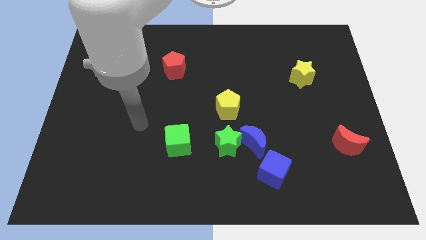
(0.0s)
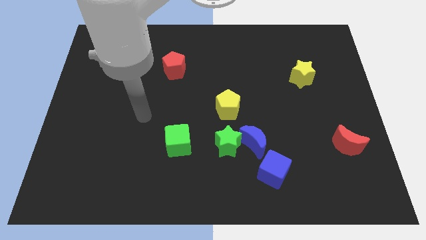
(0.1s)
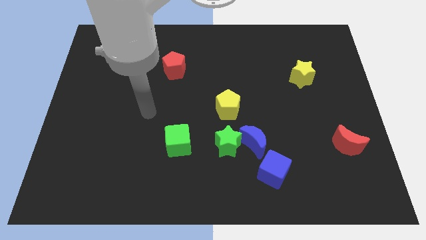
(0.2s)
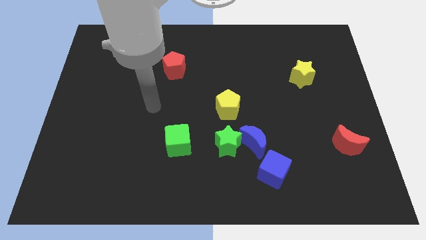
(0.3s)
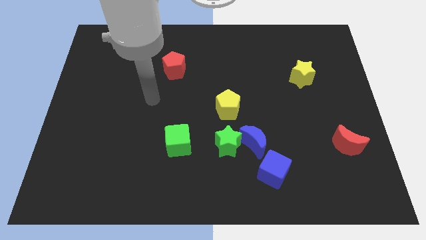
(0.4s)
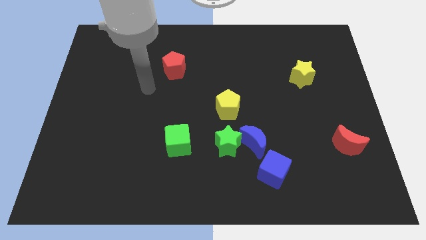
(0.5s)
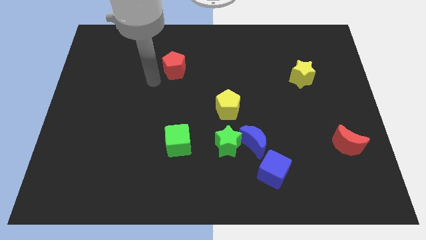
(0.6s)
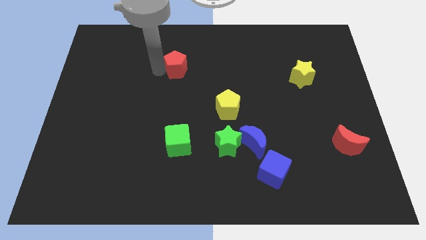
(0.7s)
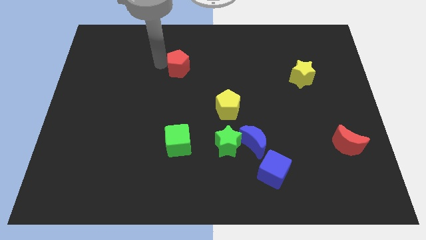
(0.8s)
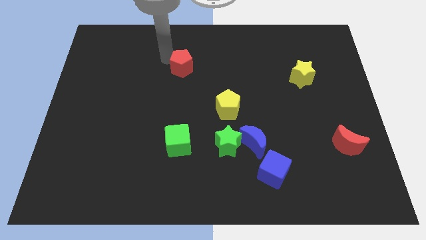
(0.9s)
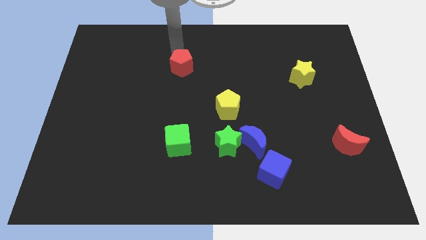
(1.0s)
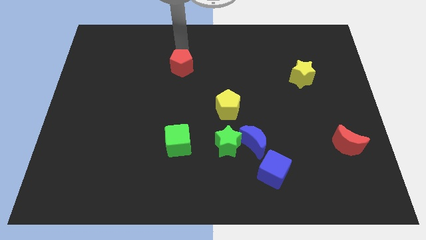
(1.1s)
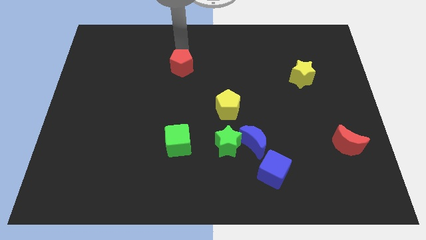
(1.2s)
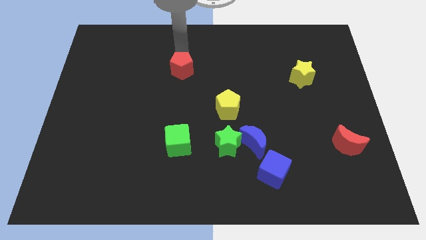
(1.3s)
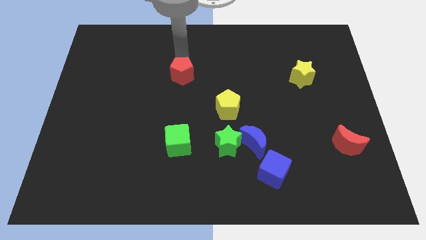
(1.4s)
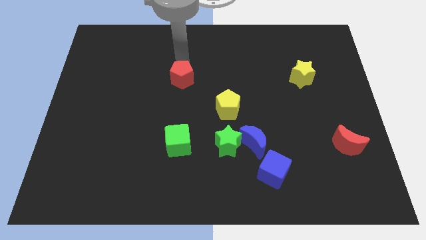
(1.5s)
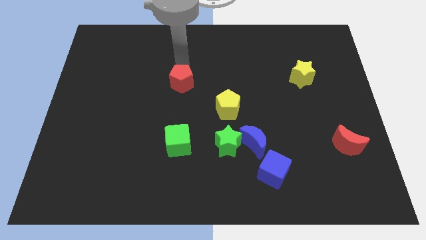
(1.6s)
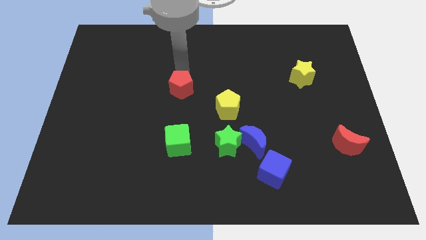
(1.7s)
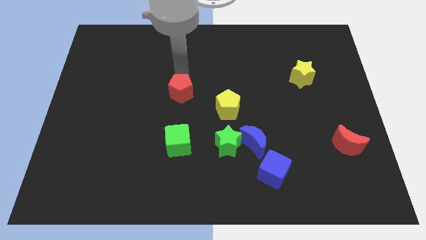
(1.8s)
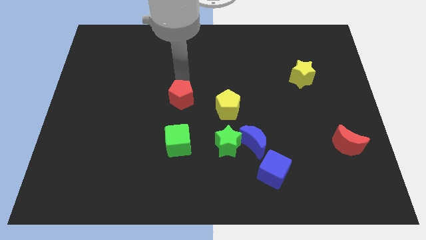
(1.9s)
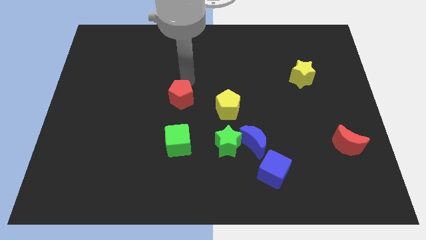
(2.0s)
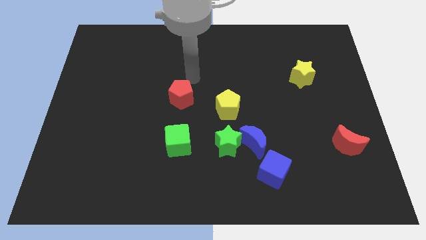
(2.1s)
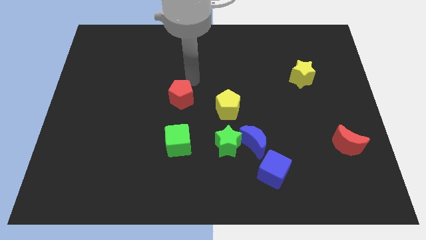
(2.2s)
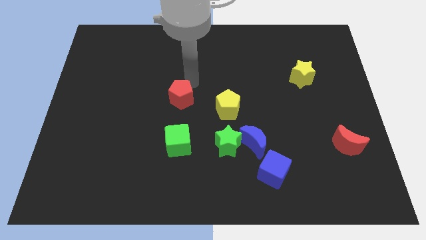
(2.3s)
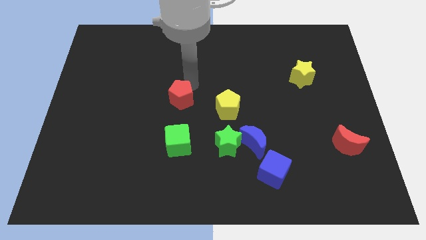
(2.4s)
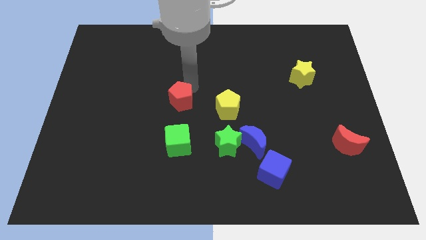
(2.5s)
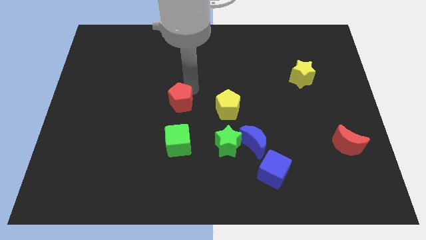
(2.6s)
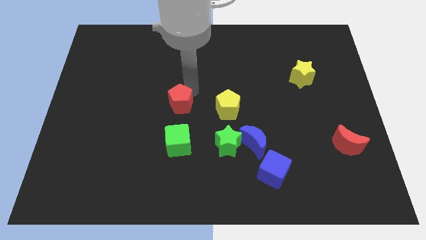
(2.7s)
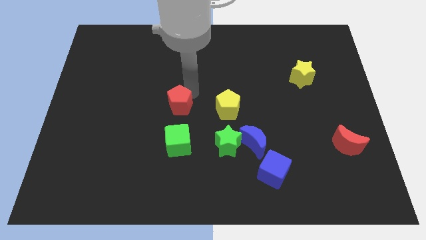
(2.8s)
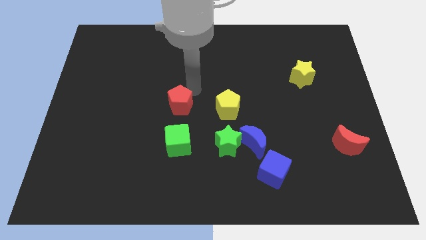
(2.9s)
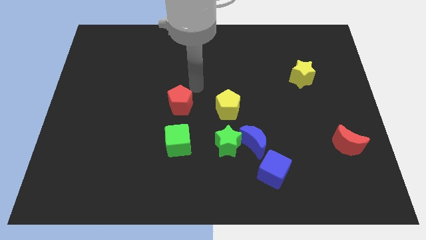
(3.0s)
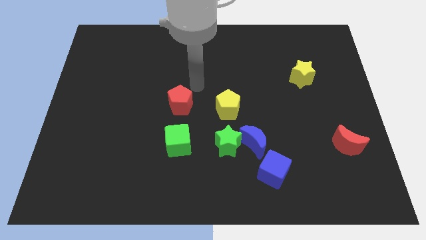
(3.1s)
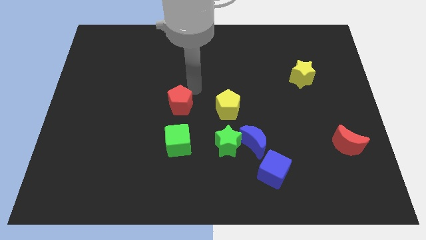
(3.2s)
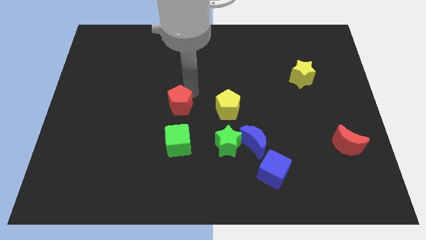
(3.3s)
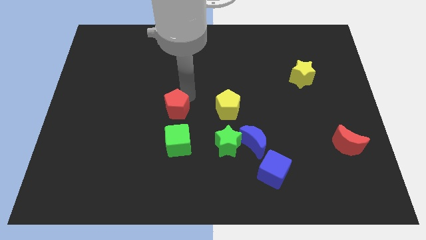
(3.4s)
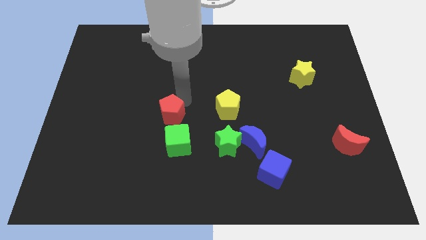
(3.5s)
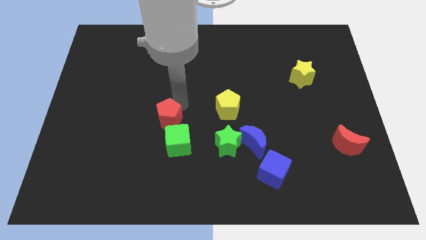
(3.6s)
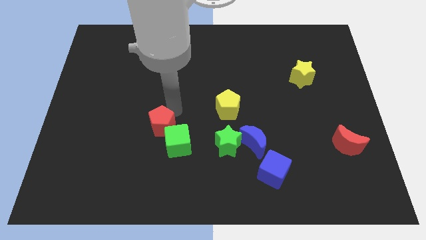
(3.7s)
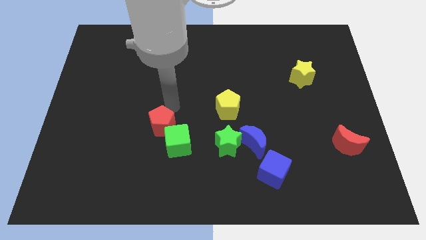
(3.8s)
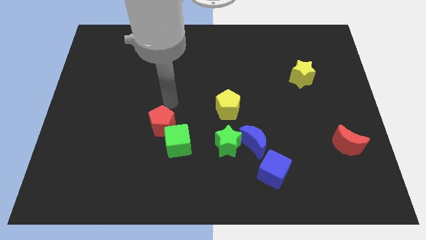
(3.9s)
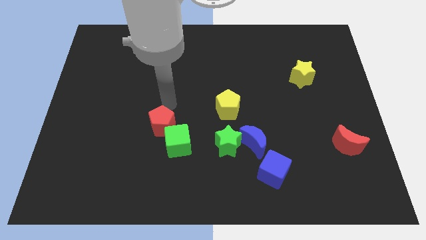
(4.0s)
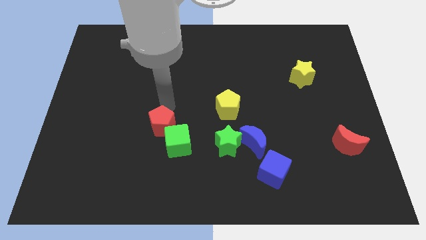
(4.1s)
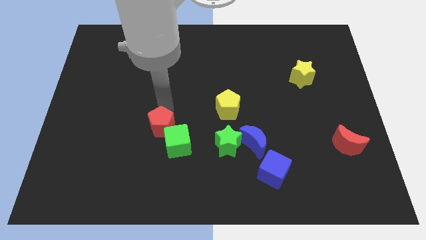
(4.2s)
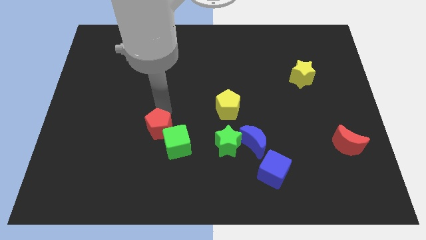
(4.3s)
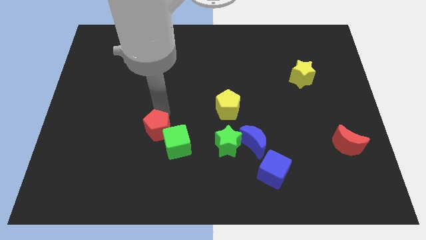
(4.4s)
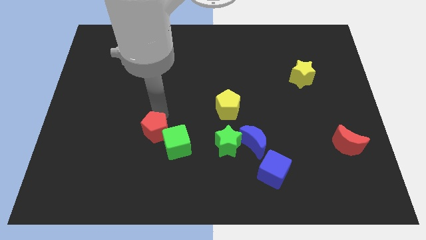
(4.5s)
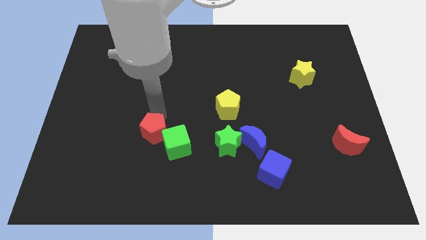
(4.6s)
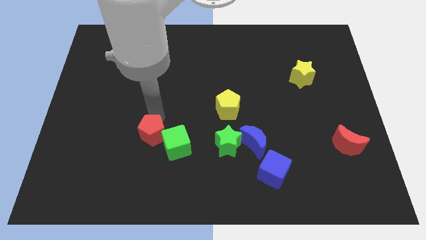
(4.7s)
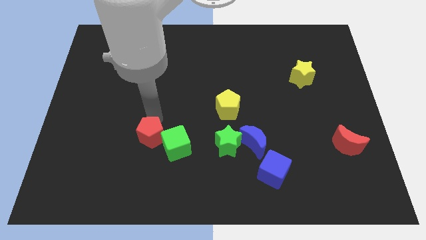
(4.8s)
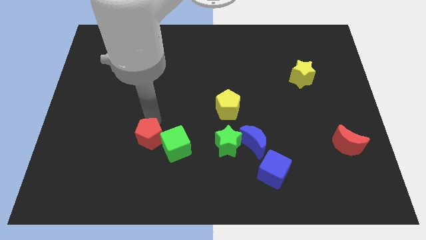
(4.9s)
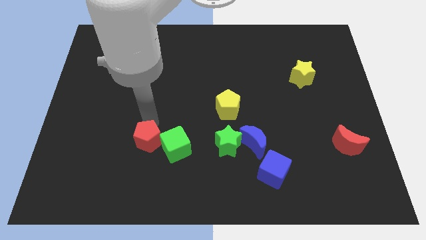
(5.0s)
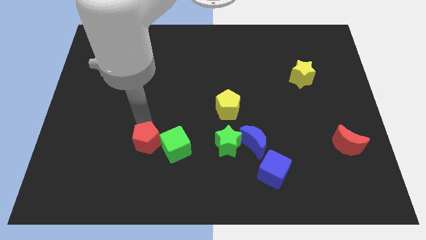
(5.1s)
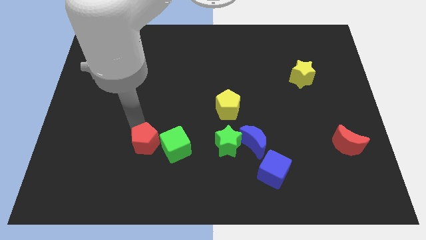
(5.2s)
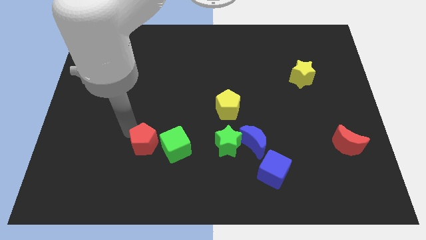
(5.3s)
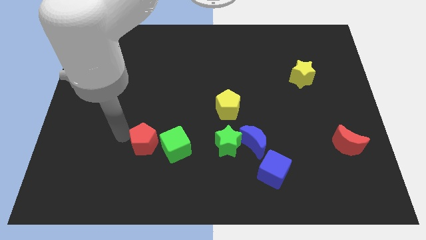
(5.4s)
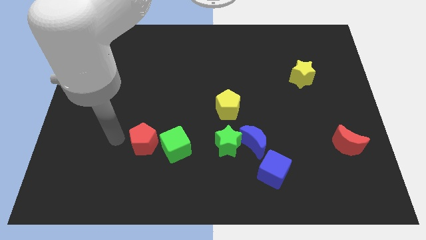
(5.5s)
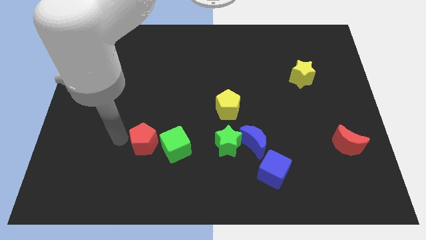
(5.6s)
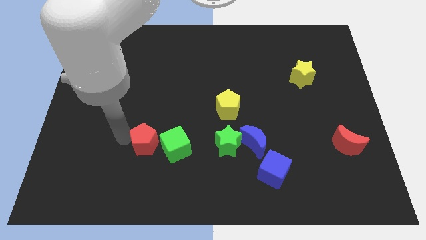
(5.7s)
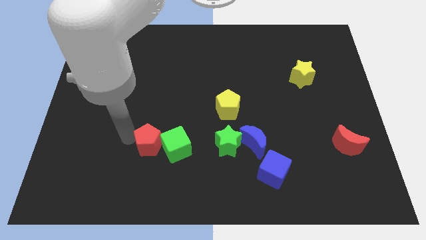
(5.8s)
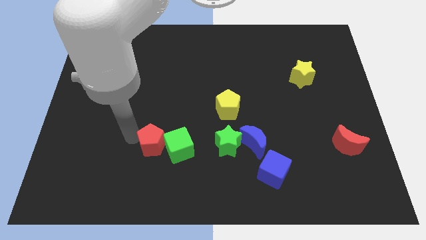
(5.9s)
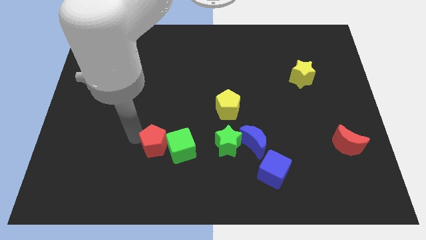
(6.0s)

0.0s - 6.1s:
put the red pentagon just left of the green star

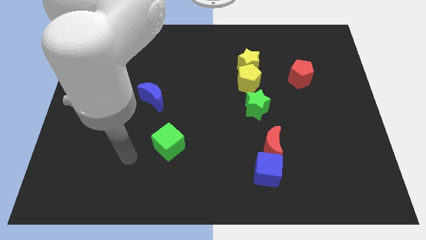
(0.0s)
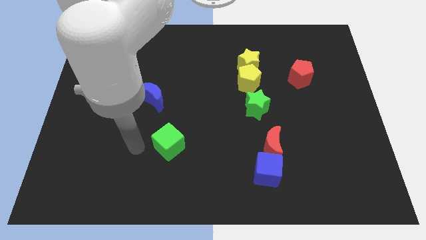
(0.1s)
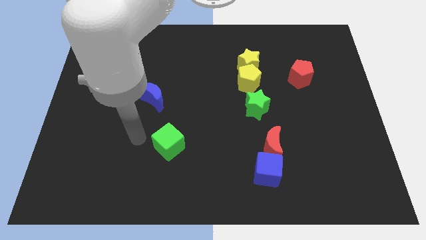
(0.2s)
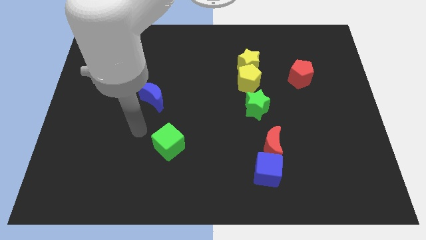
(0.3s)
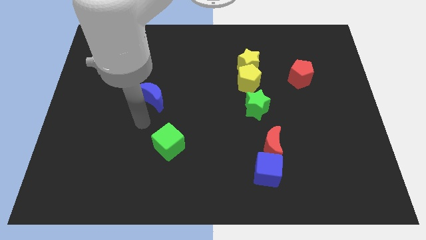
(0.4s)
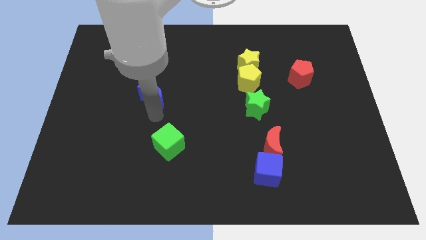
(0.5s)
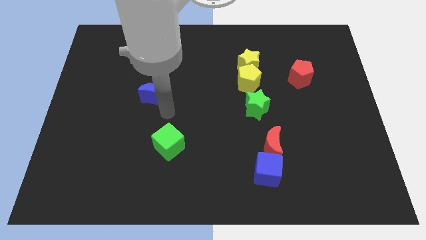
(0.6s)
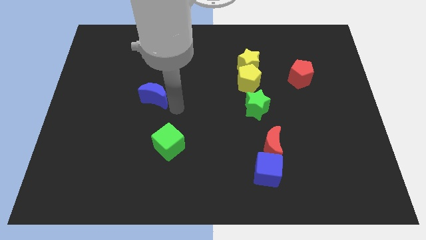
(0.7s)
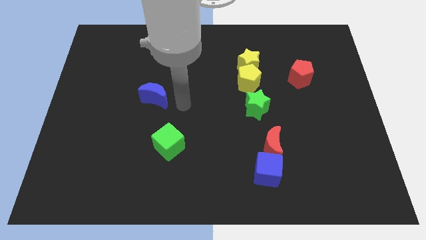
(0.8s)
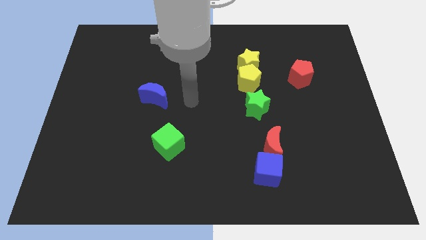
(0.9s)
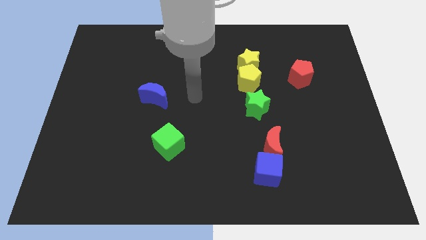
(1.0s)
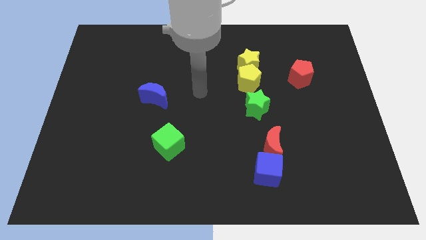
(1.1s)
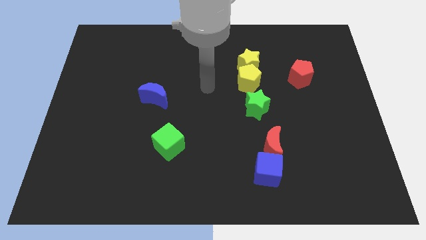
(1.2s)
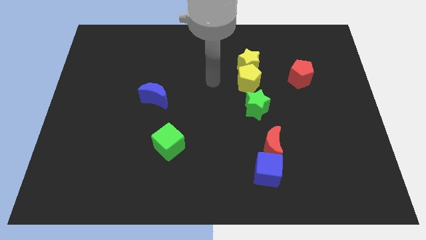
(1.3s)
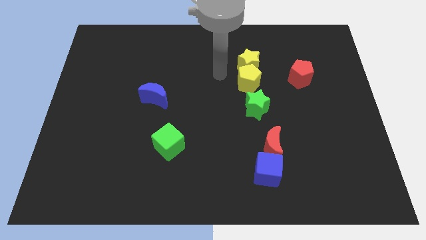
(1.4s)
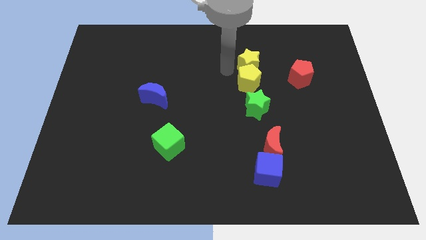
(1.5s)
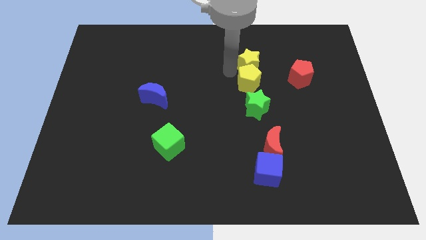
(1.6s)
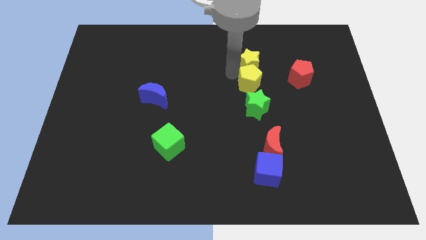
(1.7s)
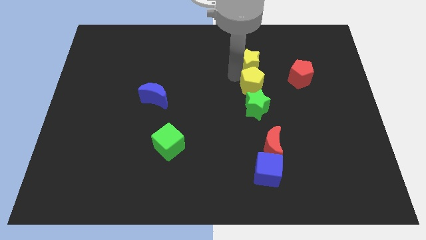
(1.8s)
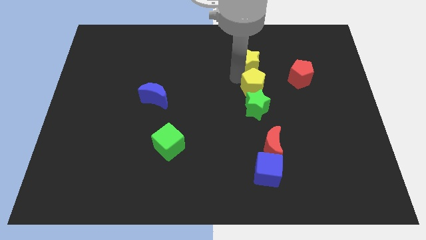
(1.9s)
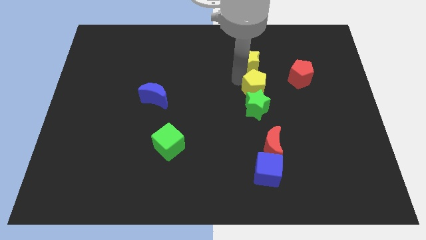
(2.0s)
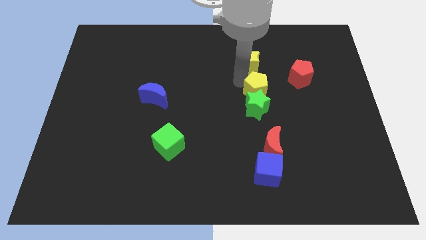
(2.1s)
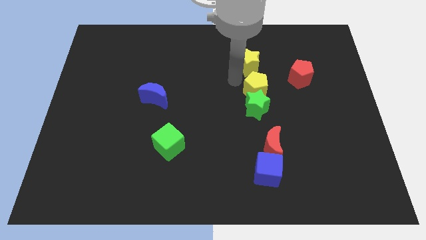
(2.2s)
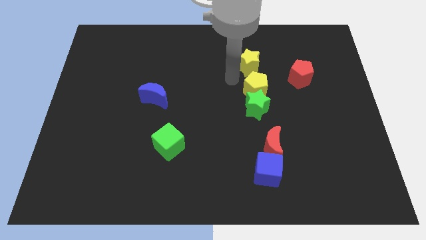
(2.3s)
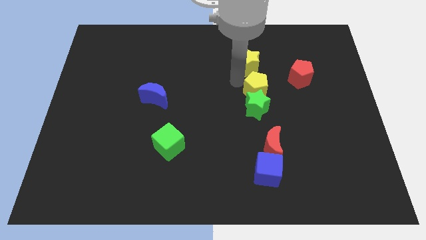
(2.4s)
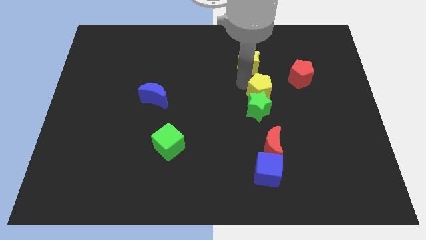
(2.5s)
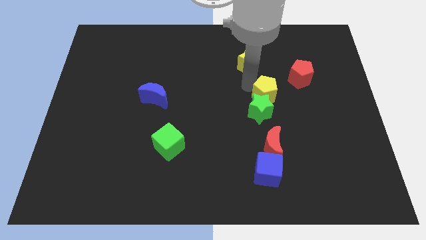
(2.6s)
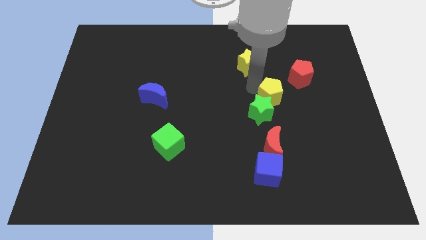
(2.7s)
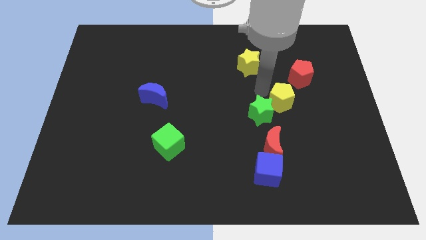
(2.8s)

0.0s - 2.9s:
move the yellow pentagon right of the green star
